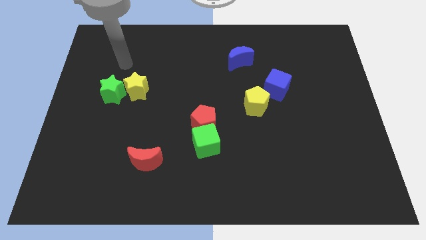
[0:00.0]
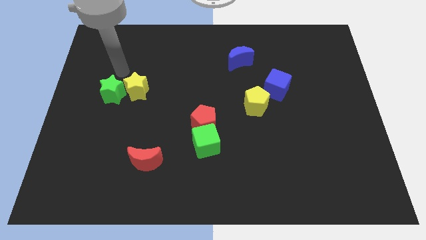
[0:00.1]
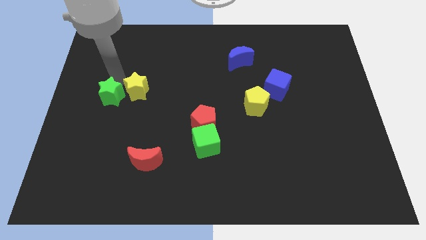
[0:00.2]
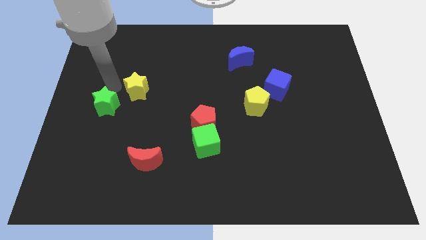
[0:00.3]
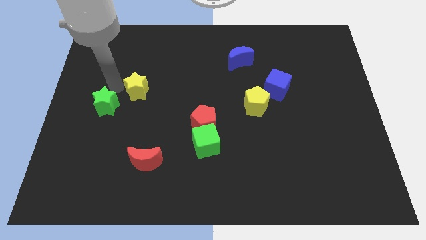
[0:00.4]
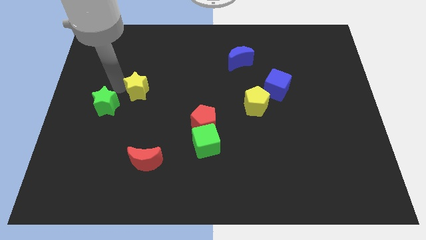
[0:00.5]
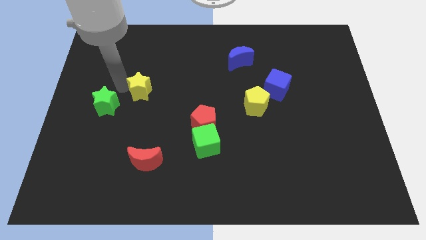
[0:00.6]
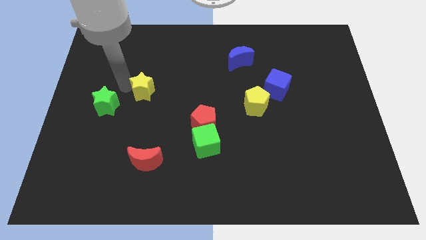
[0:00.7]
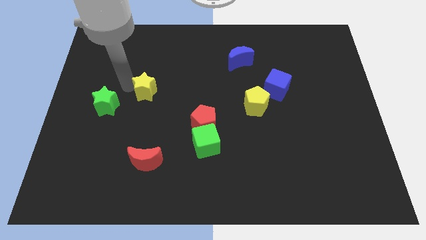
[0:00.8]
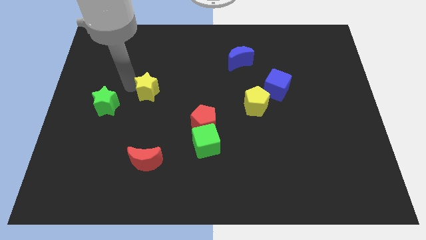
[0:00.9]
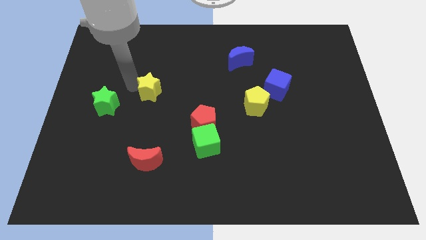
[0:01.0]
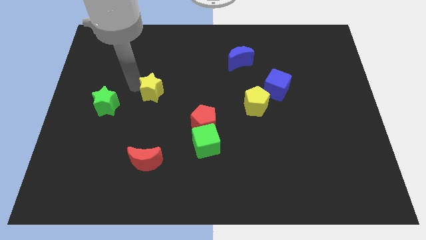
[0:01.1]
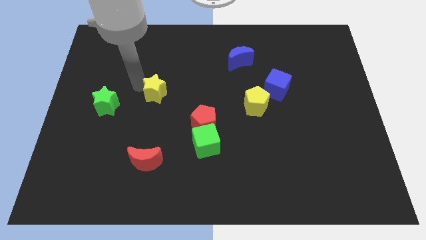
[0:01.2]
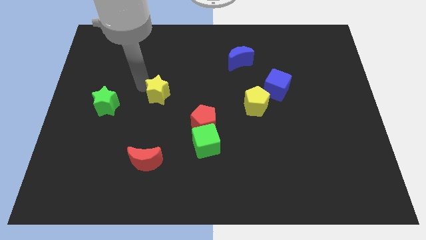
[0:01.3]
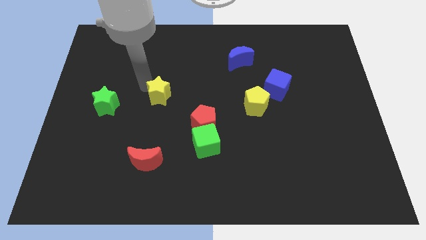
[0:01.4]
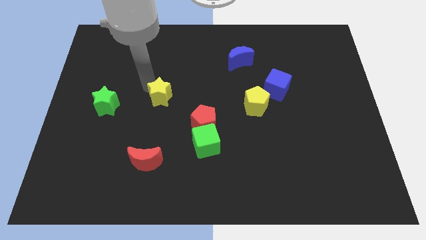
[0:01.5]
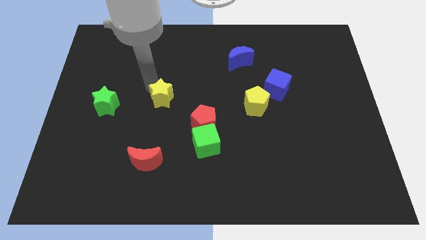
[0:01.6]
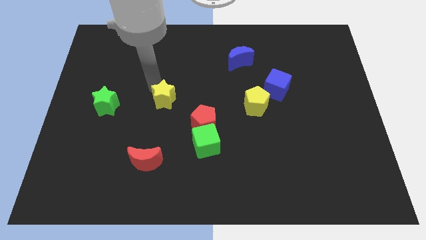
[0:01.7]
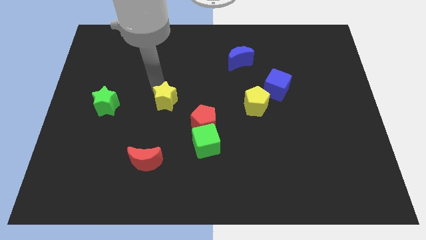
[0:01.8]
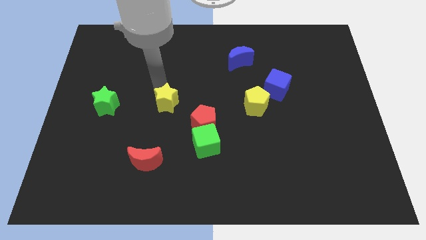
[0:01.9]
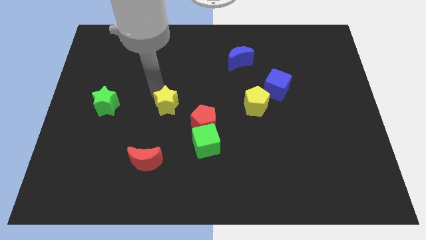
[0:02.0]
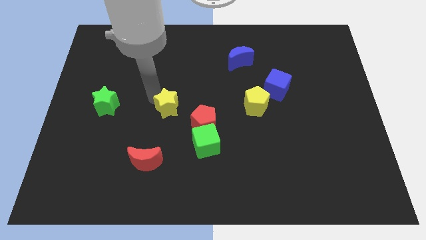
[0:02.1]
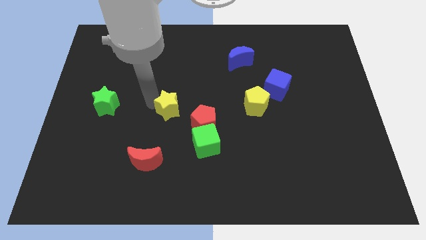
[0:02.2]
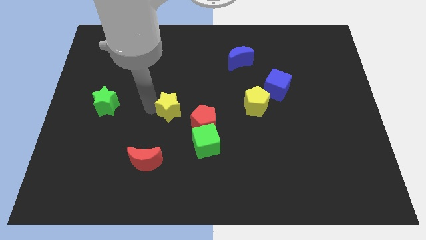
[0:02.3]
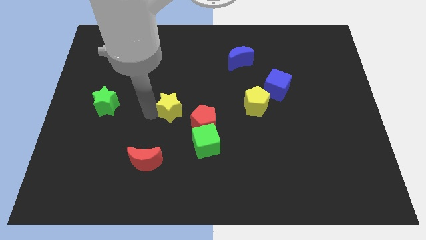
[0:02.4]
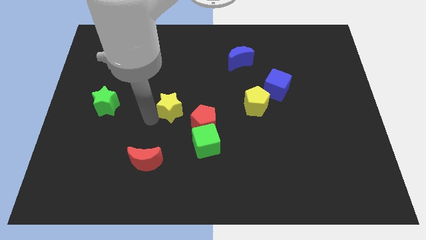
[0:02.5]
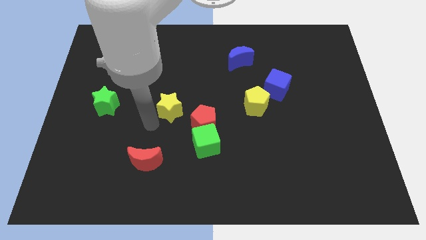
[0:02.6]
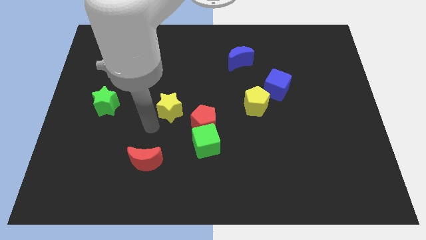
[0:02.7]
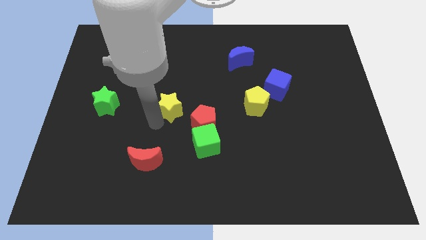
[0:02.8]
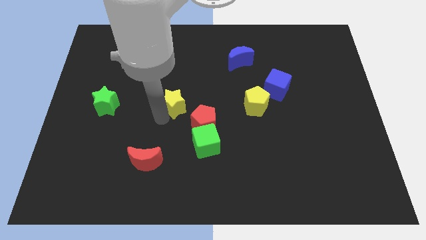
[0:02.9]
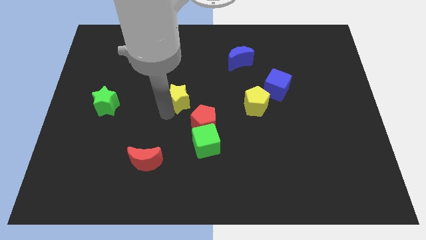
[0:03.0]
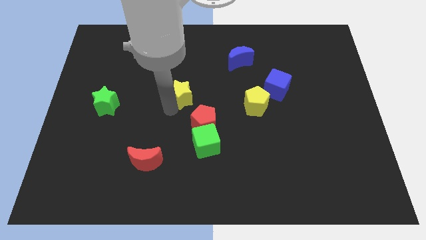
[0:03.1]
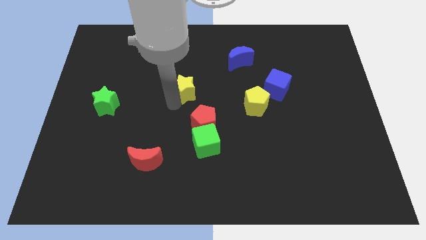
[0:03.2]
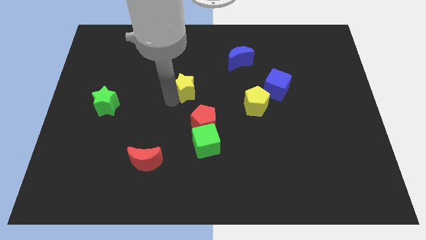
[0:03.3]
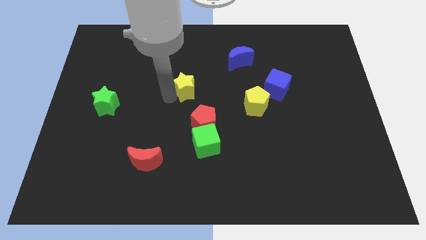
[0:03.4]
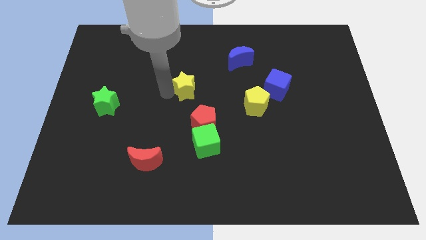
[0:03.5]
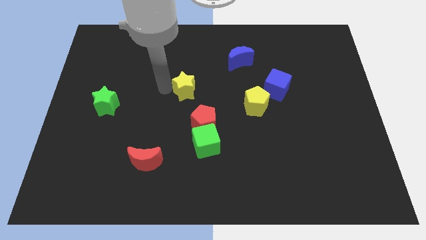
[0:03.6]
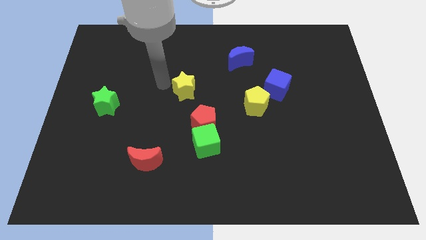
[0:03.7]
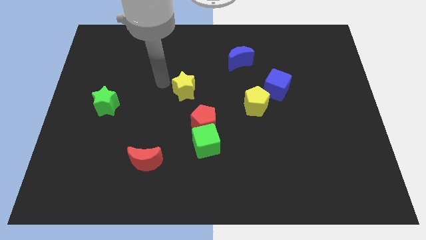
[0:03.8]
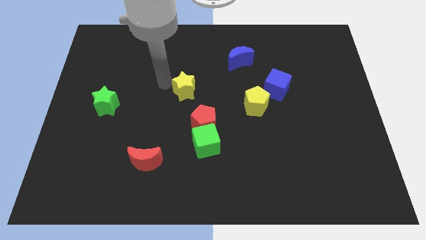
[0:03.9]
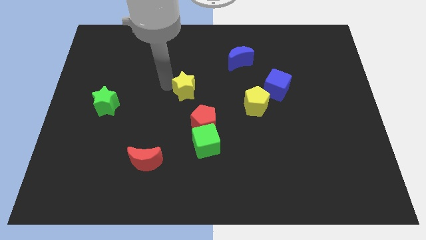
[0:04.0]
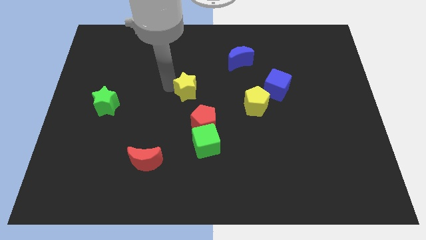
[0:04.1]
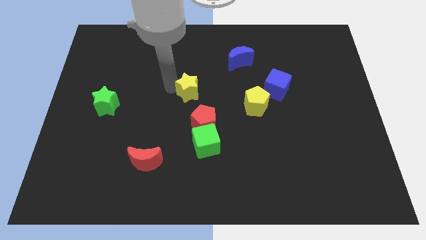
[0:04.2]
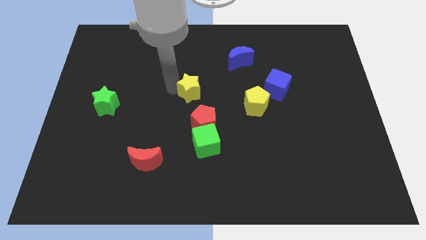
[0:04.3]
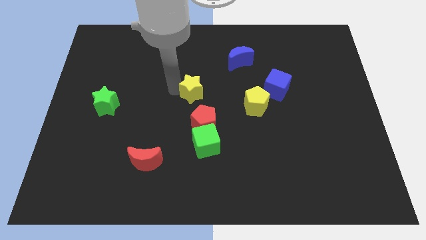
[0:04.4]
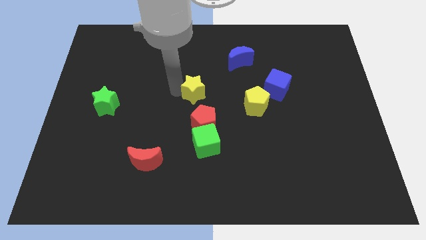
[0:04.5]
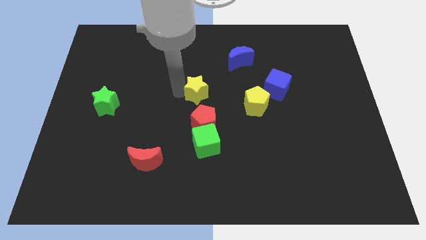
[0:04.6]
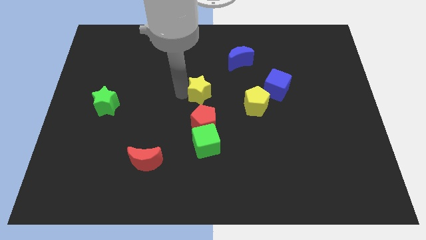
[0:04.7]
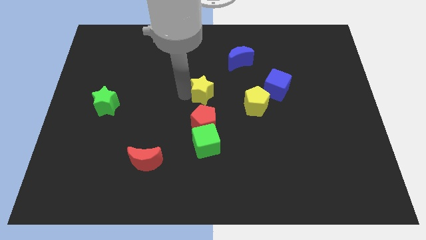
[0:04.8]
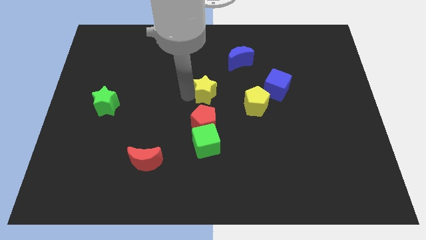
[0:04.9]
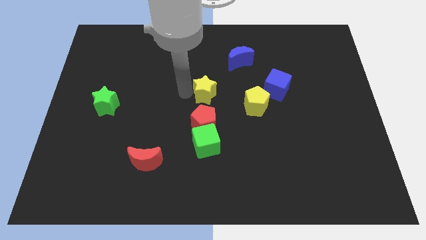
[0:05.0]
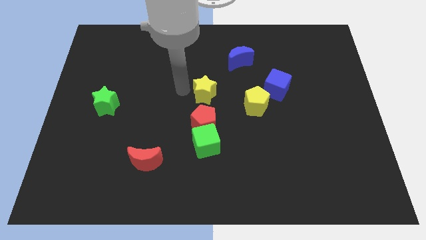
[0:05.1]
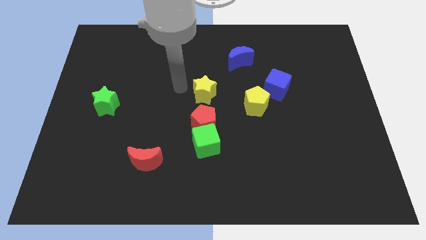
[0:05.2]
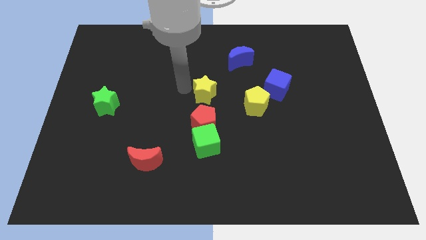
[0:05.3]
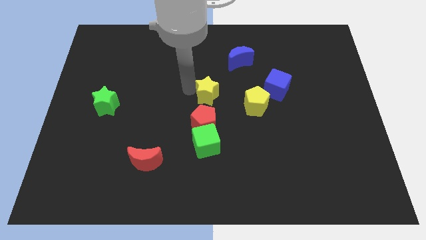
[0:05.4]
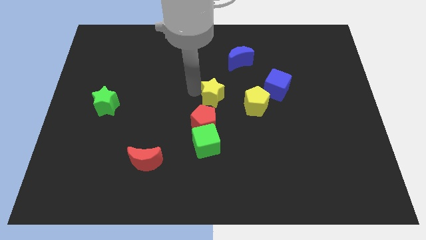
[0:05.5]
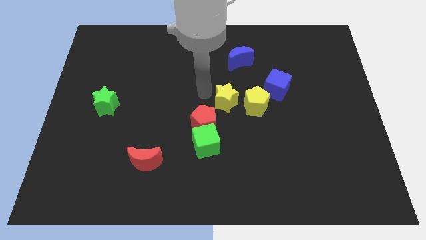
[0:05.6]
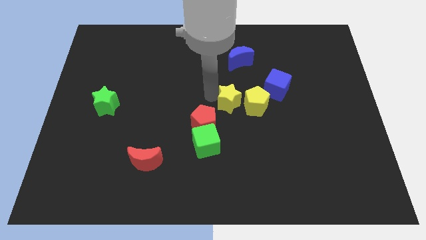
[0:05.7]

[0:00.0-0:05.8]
push the yellow star next to the yellow pentagon

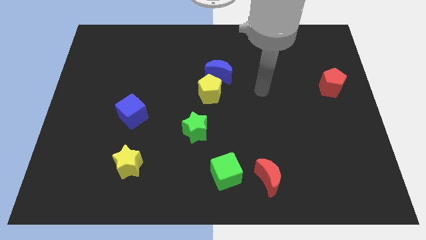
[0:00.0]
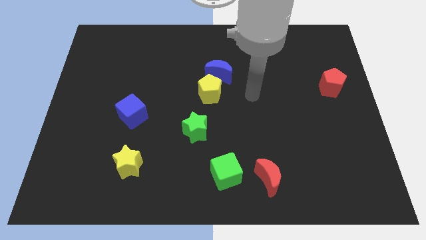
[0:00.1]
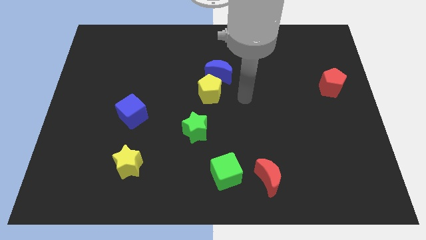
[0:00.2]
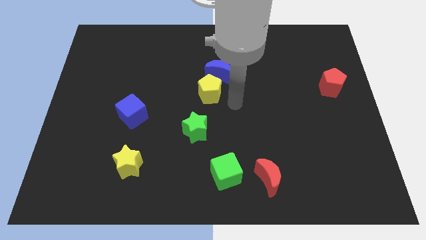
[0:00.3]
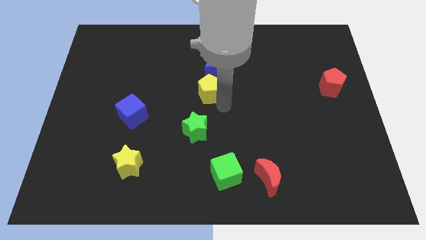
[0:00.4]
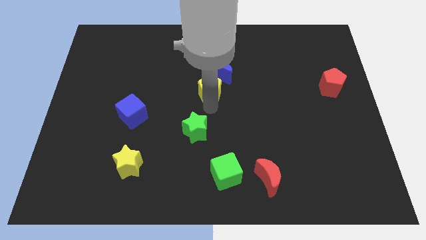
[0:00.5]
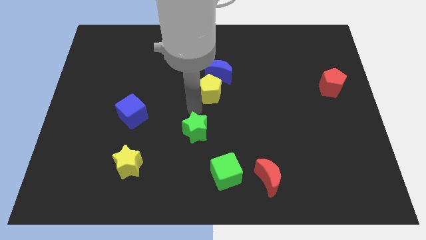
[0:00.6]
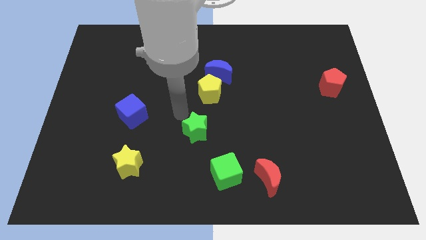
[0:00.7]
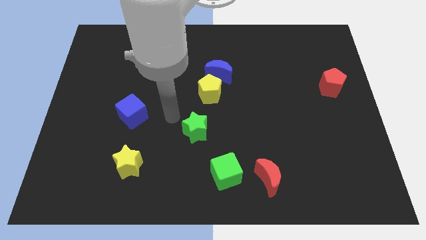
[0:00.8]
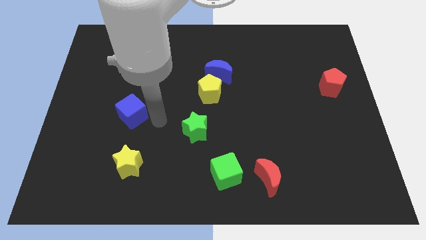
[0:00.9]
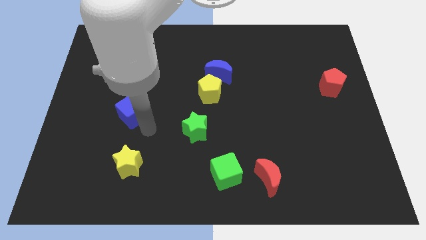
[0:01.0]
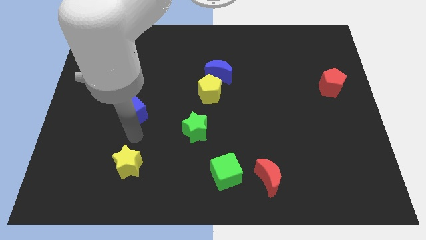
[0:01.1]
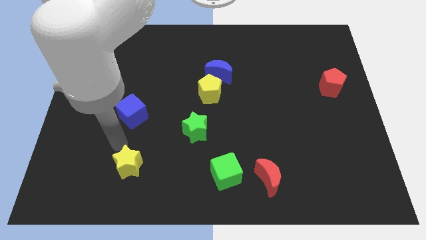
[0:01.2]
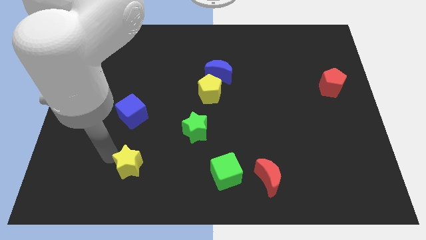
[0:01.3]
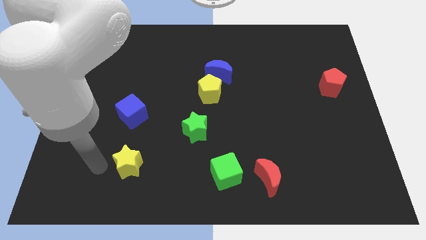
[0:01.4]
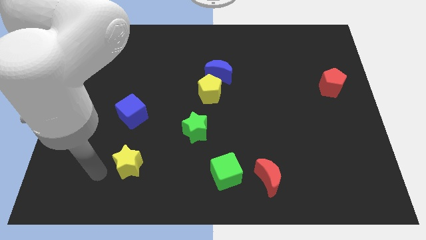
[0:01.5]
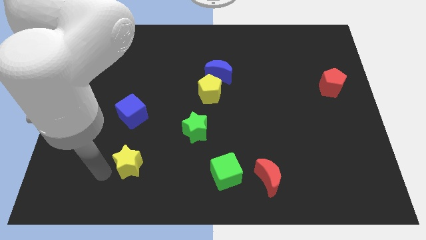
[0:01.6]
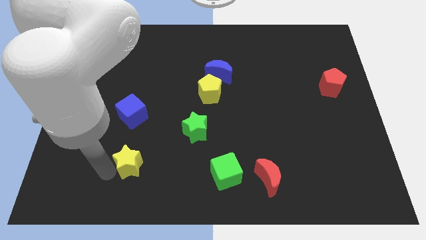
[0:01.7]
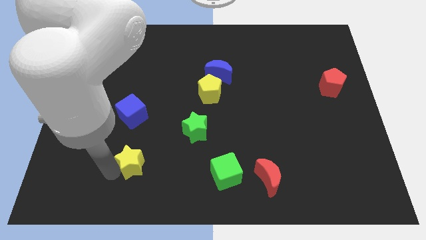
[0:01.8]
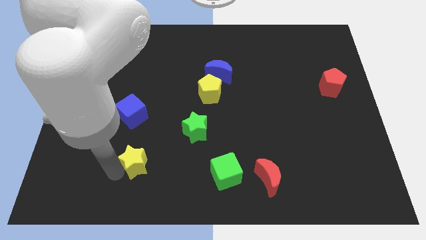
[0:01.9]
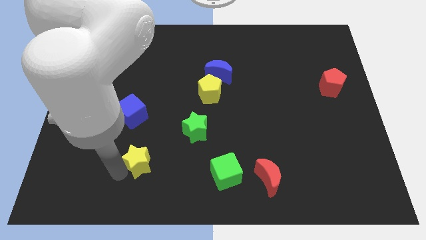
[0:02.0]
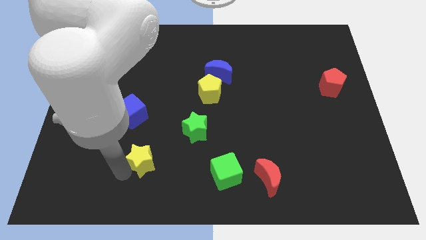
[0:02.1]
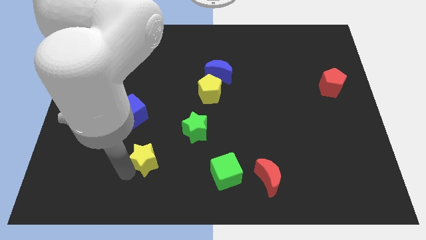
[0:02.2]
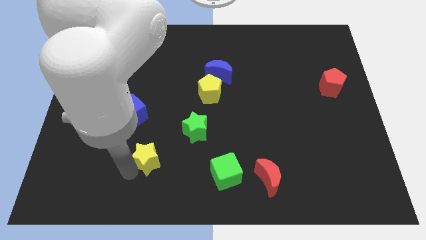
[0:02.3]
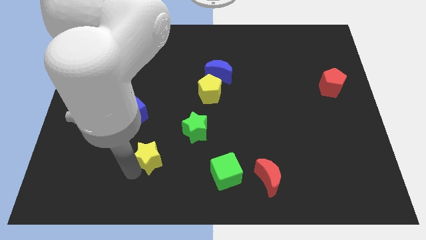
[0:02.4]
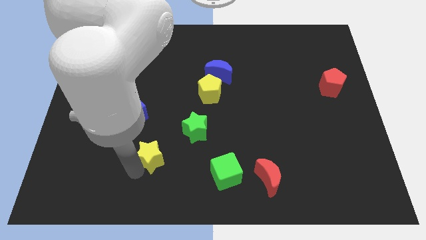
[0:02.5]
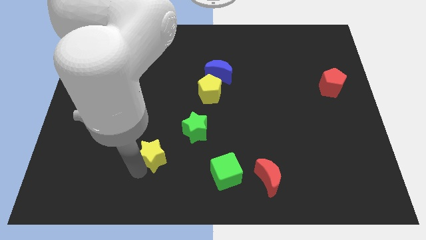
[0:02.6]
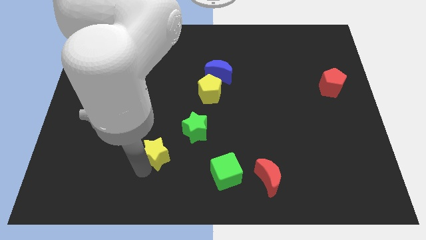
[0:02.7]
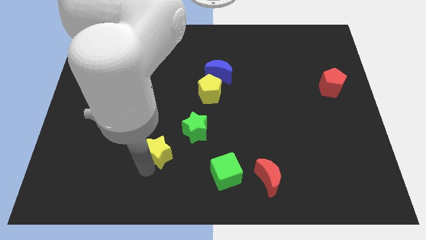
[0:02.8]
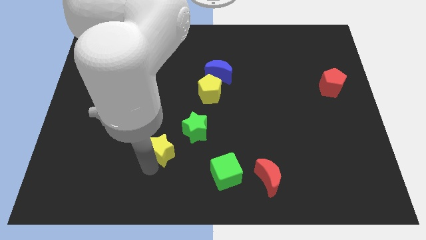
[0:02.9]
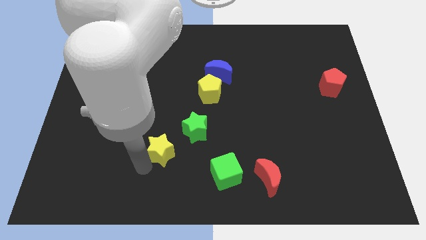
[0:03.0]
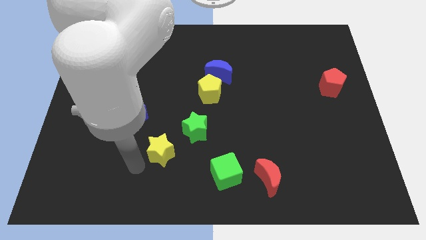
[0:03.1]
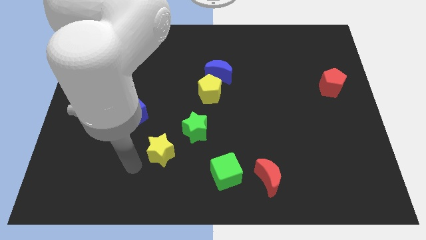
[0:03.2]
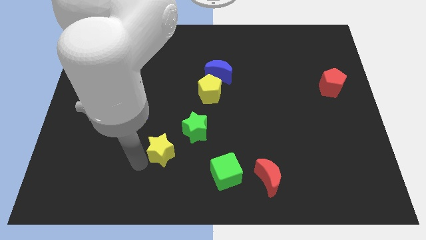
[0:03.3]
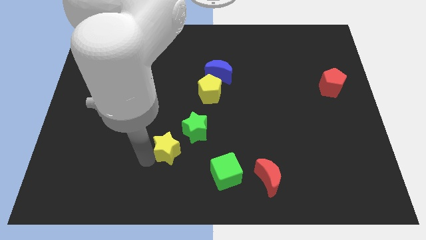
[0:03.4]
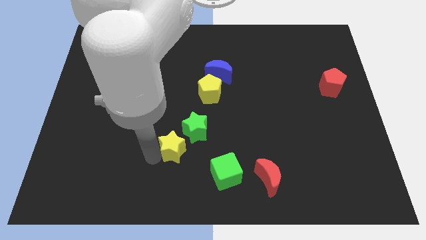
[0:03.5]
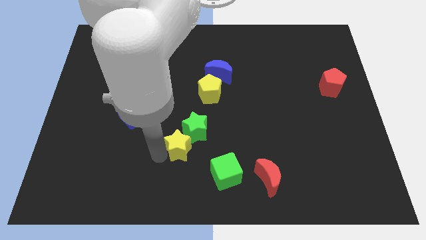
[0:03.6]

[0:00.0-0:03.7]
move the yellow star next to the green star
